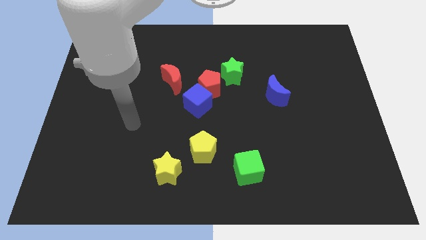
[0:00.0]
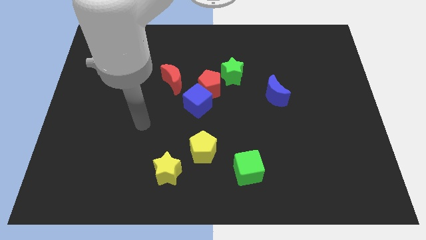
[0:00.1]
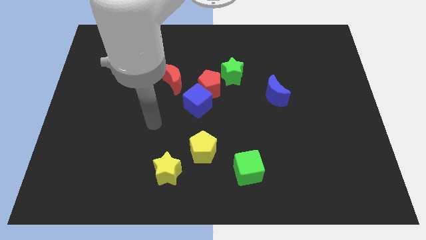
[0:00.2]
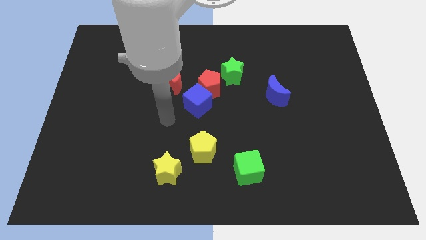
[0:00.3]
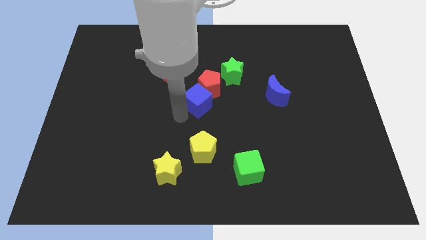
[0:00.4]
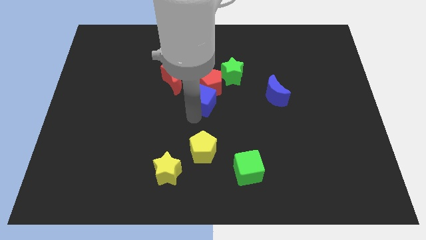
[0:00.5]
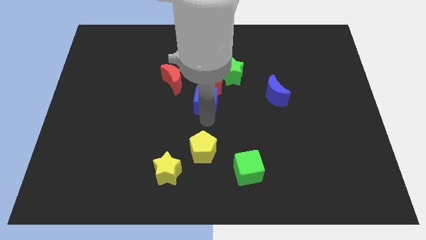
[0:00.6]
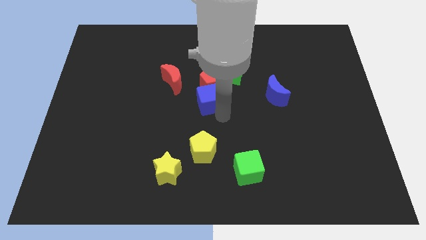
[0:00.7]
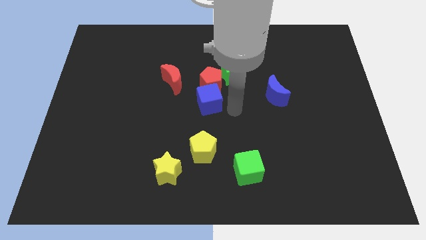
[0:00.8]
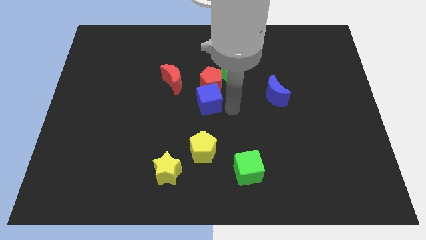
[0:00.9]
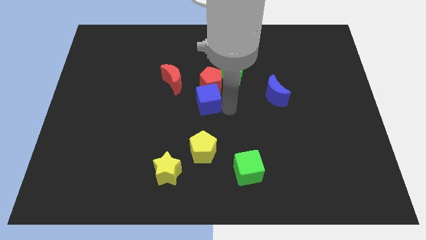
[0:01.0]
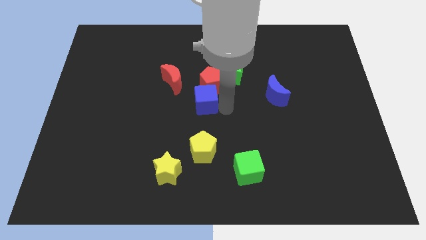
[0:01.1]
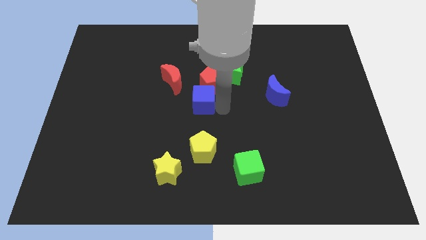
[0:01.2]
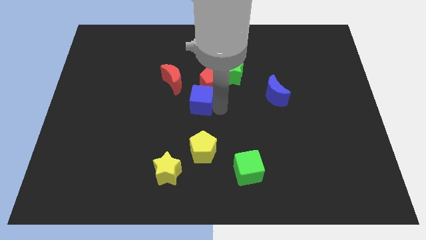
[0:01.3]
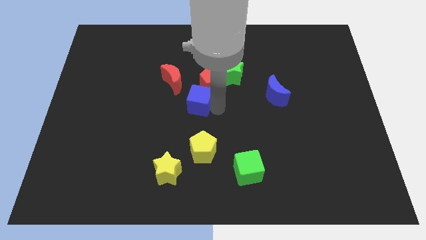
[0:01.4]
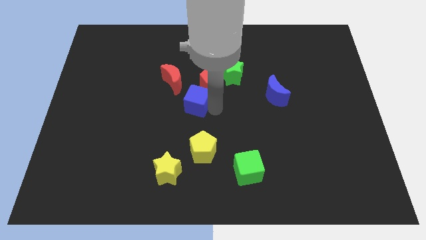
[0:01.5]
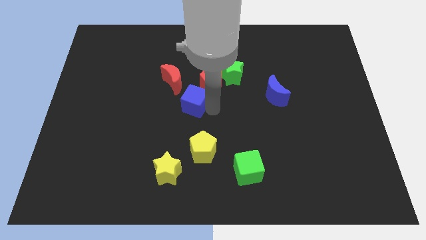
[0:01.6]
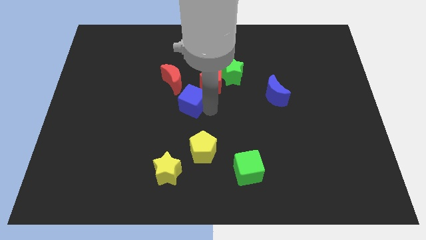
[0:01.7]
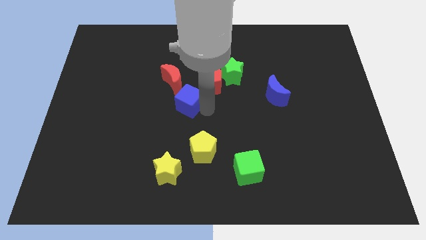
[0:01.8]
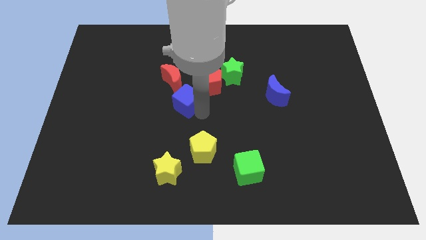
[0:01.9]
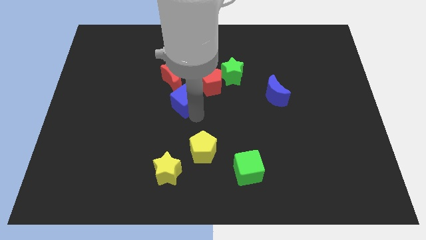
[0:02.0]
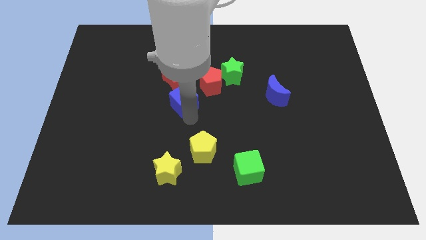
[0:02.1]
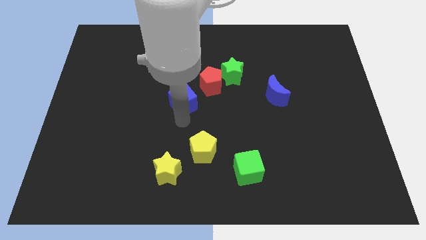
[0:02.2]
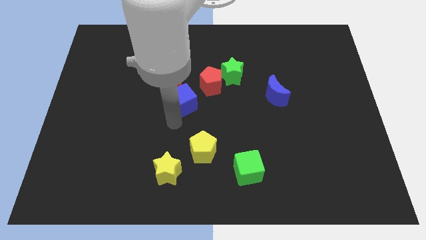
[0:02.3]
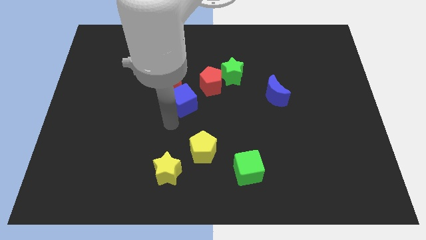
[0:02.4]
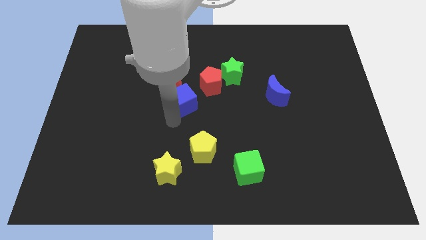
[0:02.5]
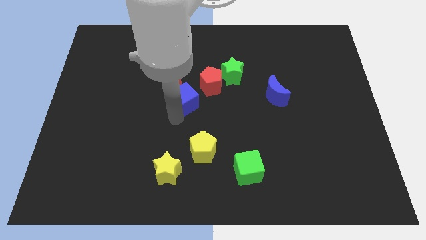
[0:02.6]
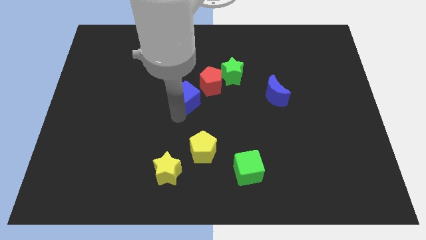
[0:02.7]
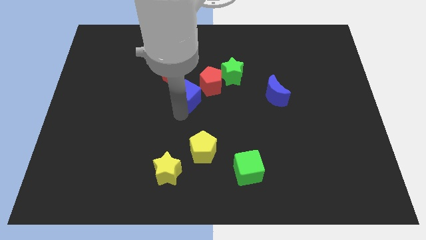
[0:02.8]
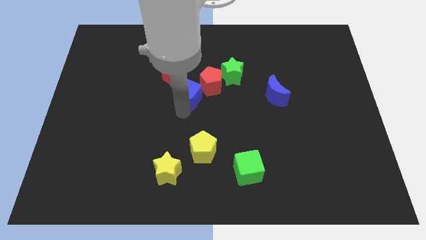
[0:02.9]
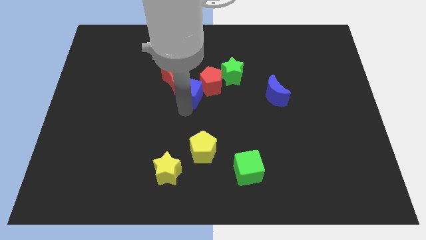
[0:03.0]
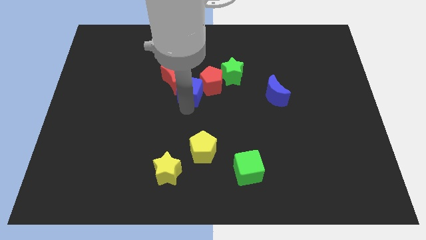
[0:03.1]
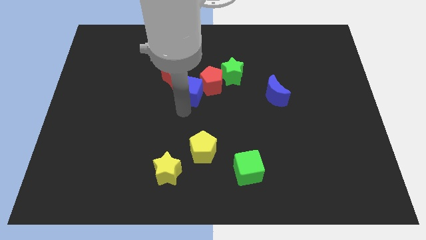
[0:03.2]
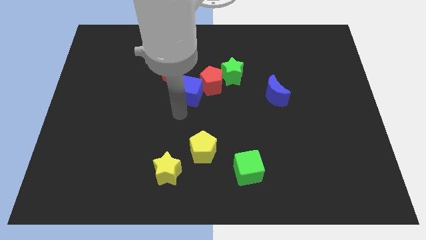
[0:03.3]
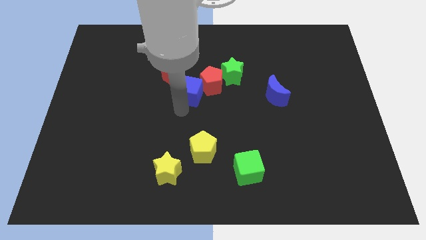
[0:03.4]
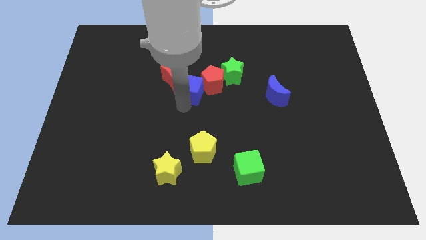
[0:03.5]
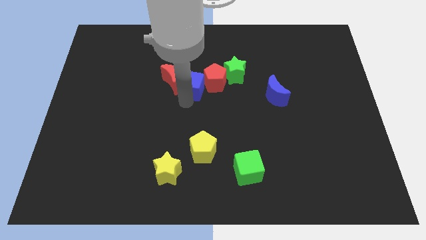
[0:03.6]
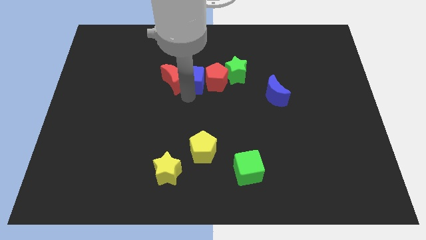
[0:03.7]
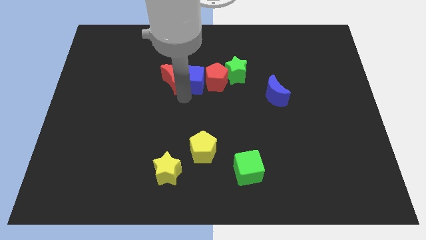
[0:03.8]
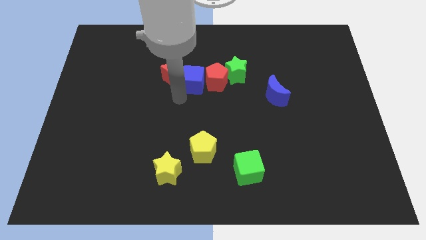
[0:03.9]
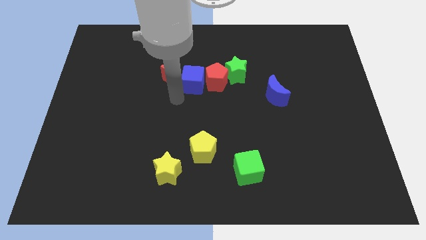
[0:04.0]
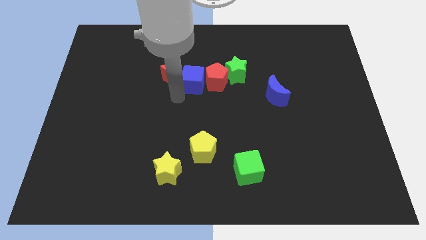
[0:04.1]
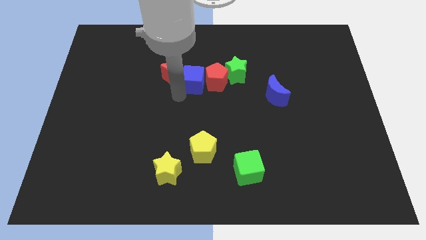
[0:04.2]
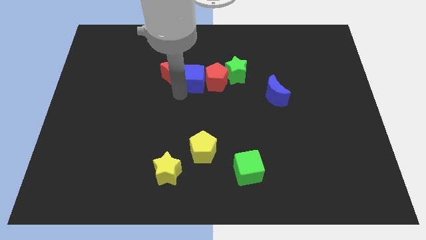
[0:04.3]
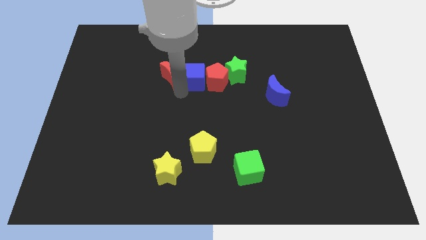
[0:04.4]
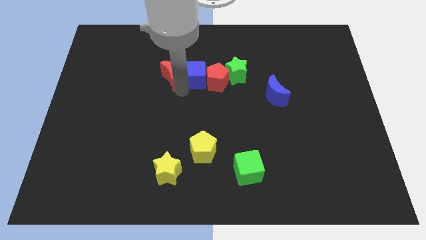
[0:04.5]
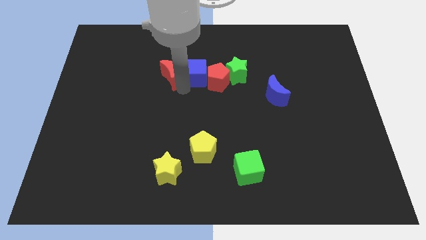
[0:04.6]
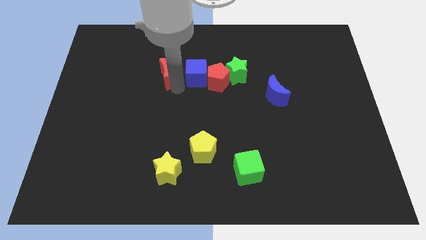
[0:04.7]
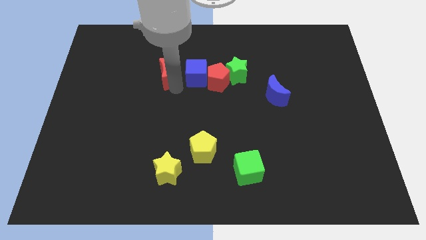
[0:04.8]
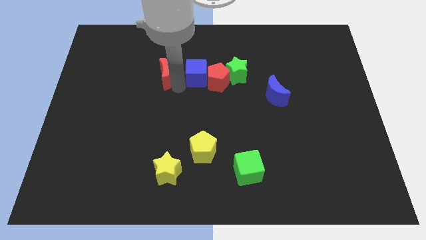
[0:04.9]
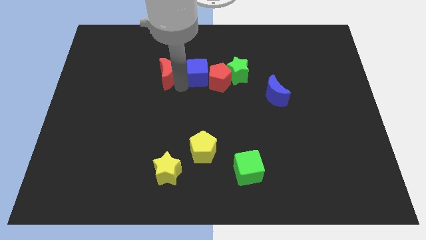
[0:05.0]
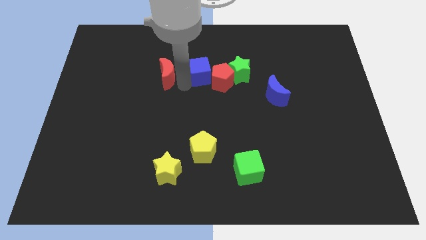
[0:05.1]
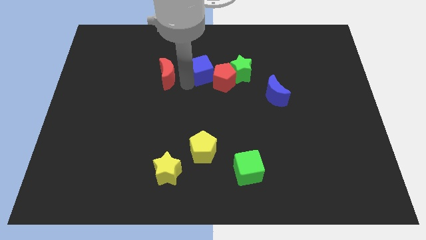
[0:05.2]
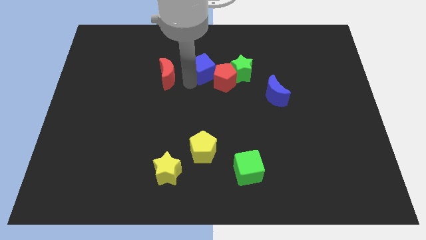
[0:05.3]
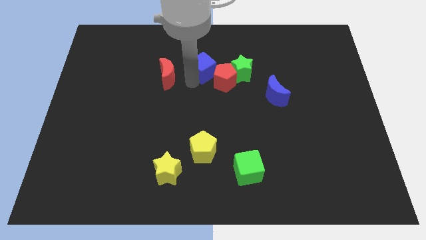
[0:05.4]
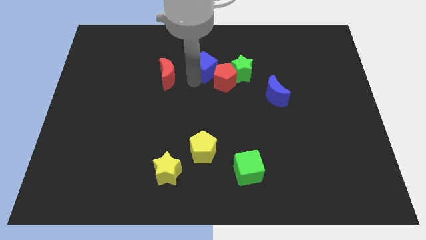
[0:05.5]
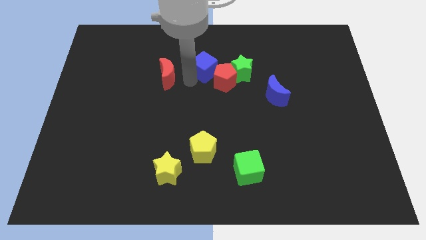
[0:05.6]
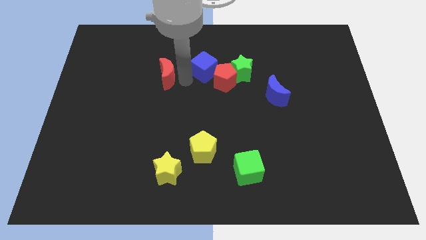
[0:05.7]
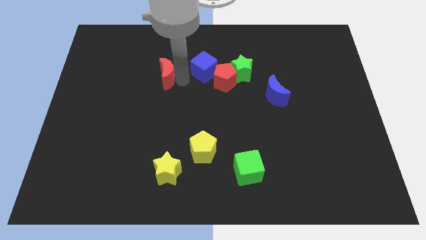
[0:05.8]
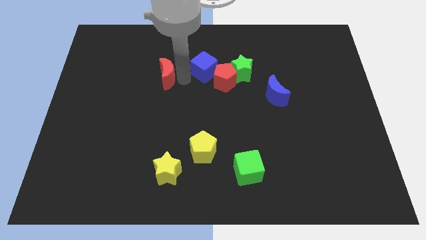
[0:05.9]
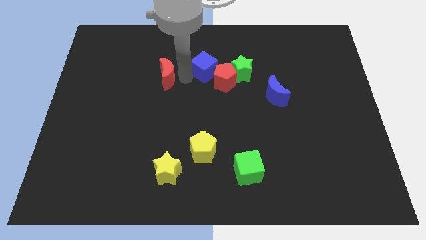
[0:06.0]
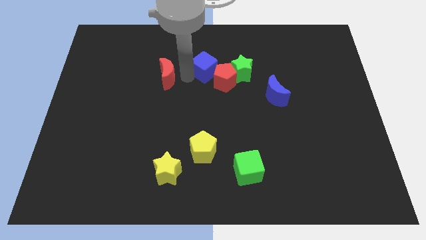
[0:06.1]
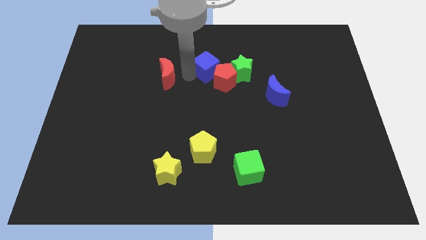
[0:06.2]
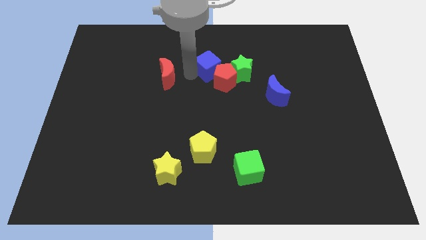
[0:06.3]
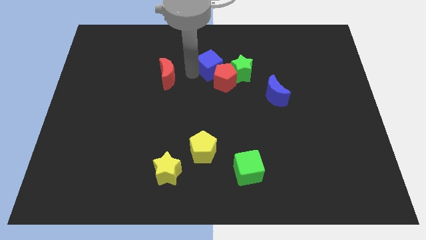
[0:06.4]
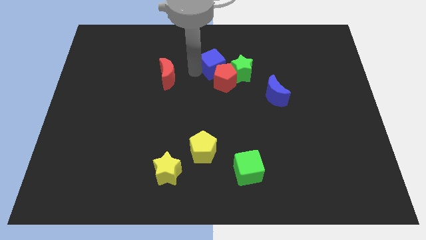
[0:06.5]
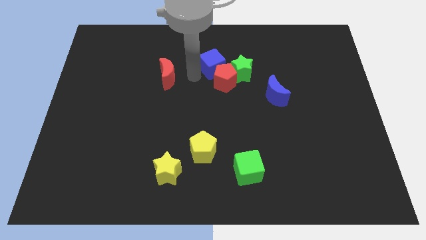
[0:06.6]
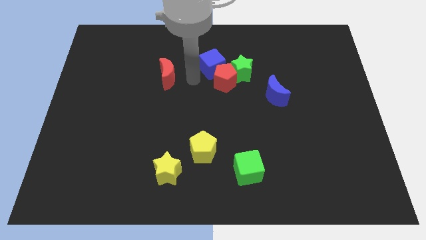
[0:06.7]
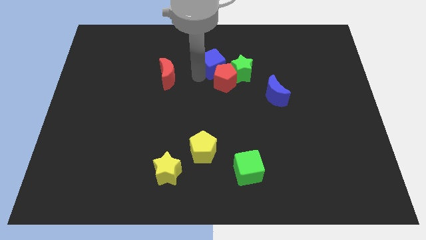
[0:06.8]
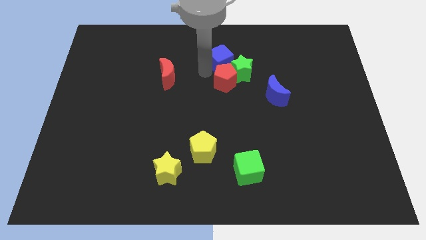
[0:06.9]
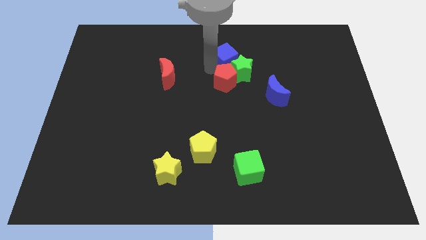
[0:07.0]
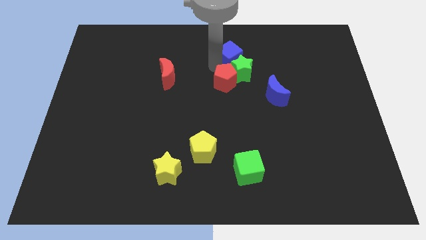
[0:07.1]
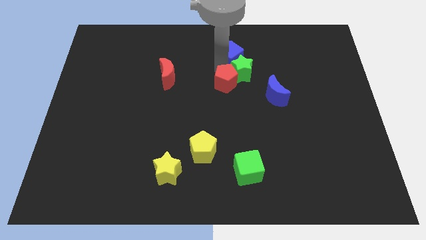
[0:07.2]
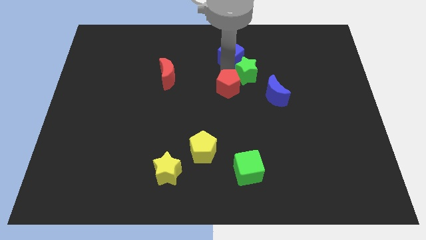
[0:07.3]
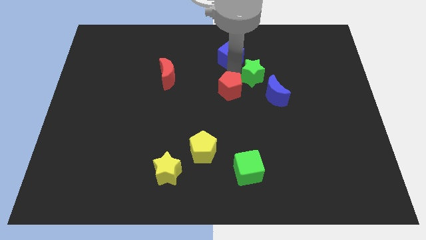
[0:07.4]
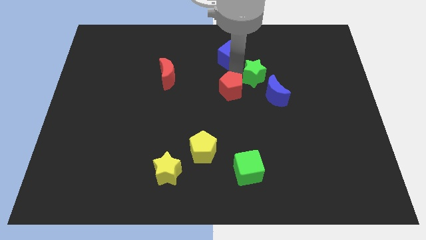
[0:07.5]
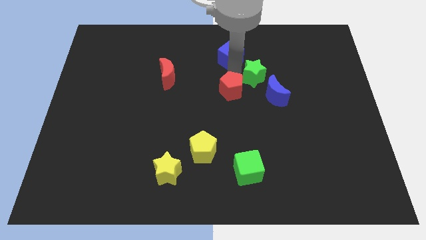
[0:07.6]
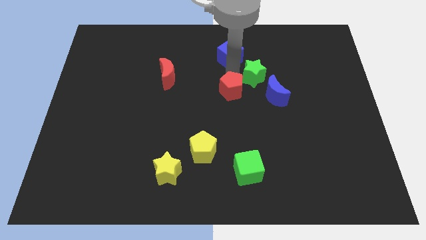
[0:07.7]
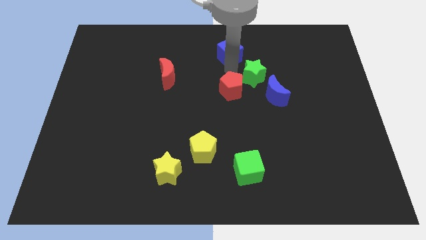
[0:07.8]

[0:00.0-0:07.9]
push the blue cube to the top side
